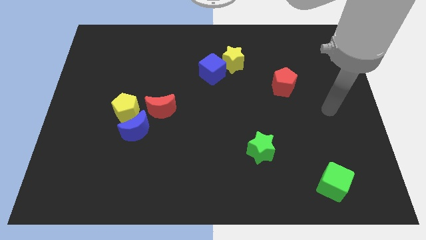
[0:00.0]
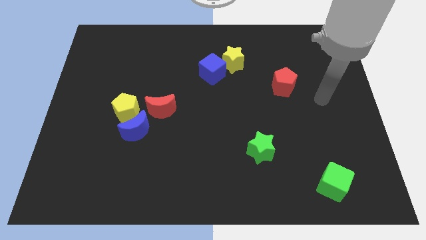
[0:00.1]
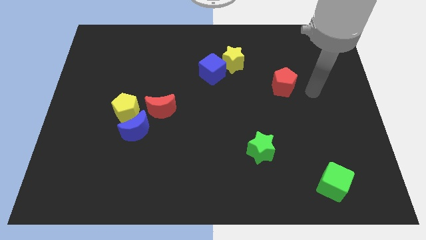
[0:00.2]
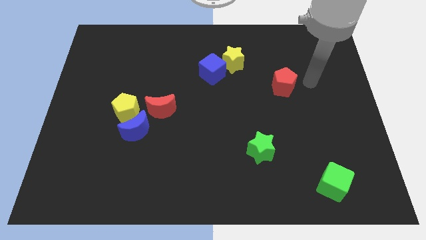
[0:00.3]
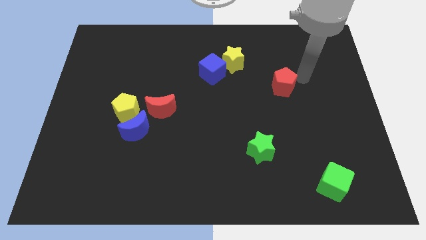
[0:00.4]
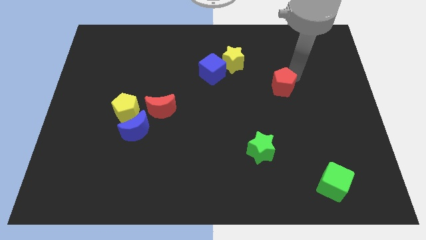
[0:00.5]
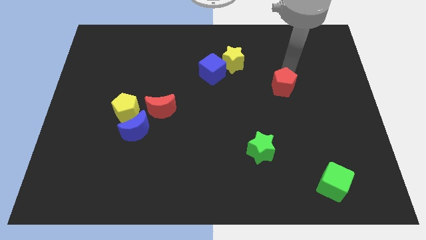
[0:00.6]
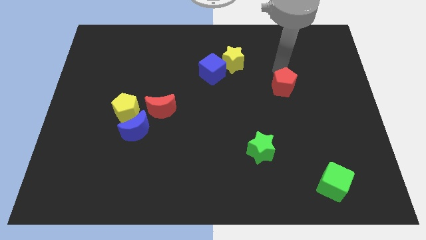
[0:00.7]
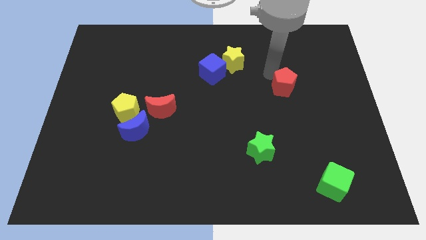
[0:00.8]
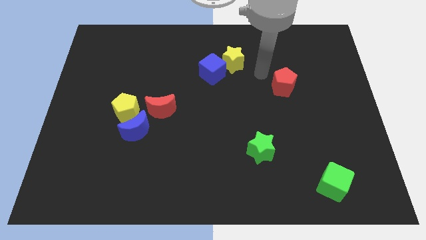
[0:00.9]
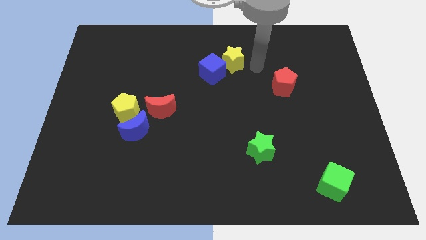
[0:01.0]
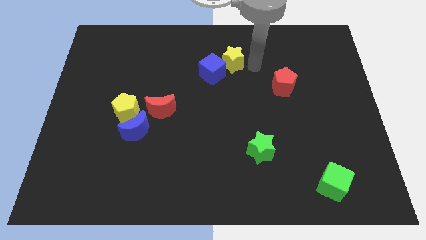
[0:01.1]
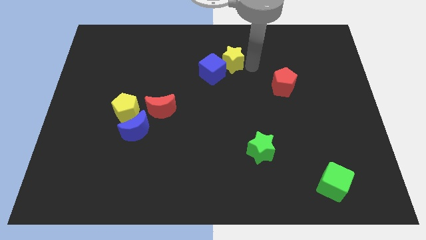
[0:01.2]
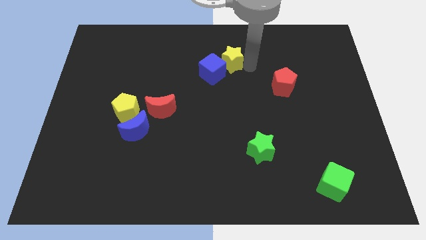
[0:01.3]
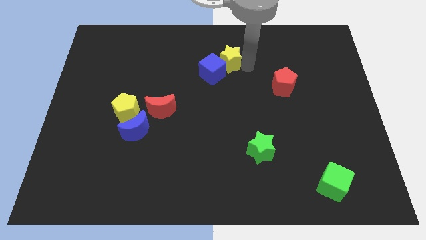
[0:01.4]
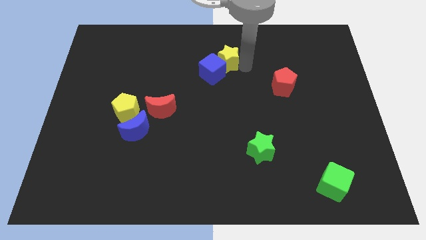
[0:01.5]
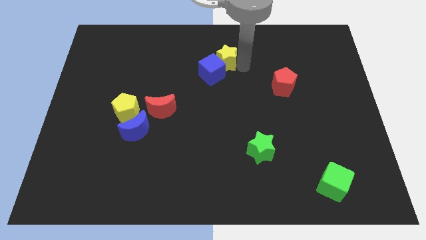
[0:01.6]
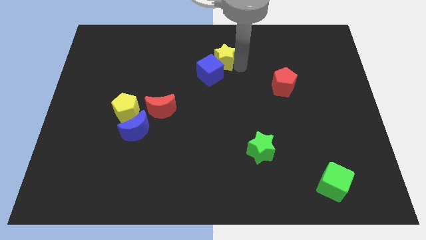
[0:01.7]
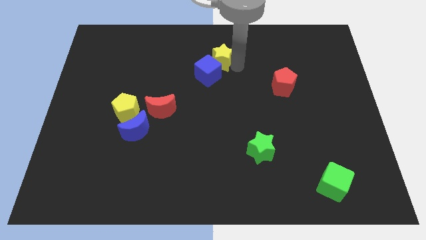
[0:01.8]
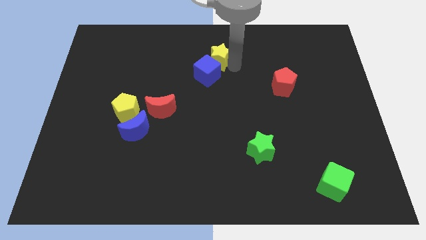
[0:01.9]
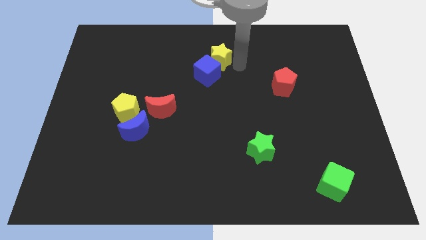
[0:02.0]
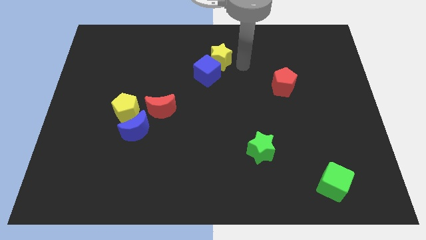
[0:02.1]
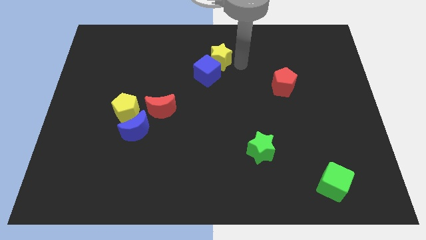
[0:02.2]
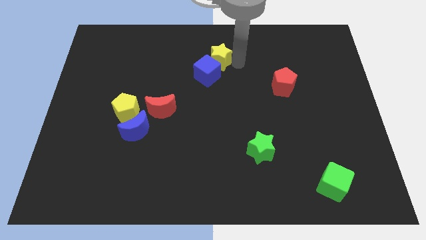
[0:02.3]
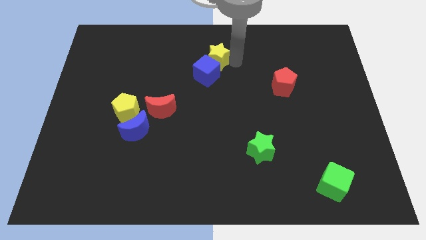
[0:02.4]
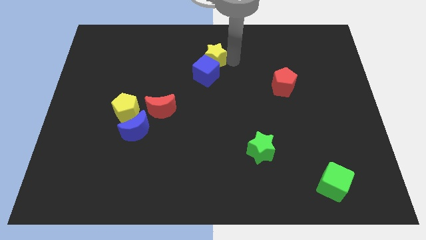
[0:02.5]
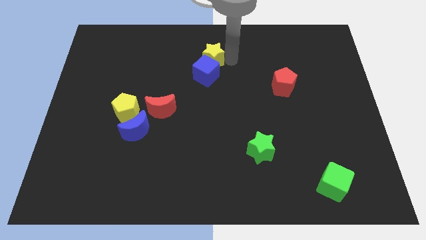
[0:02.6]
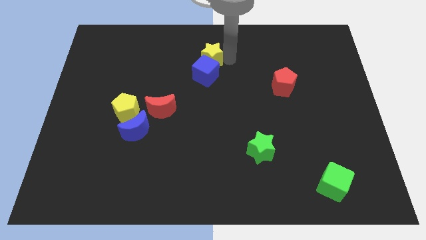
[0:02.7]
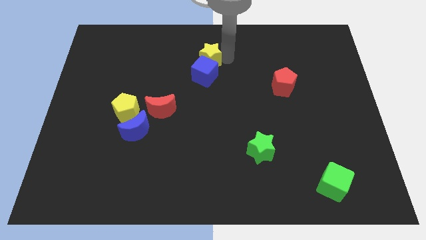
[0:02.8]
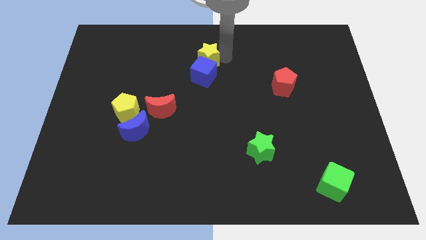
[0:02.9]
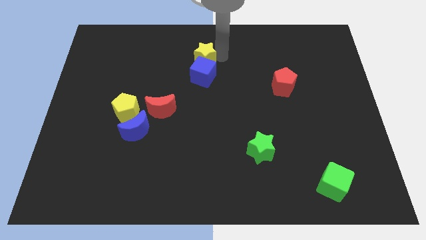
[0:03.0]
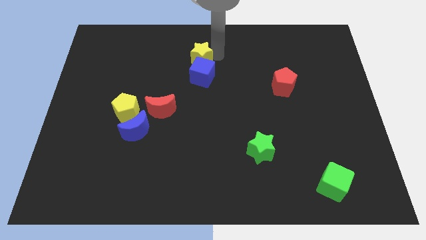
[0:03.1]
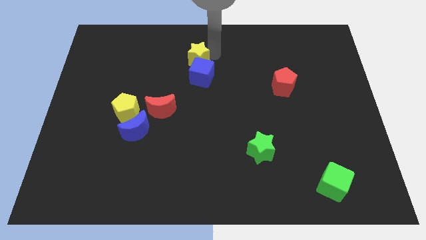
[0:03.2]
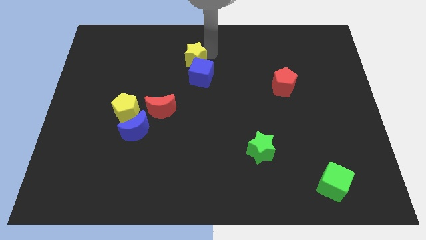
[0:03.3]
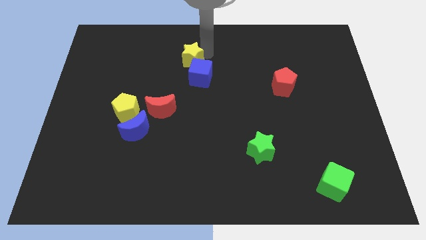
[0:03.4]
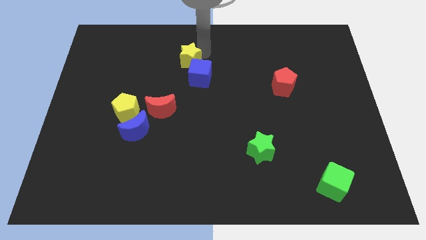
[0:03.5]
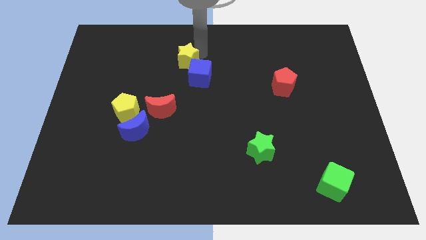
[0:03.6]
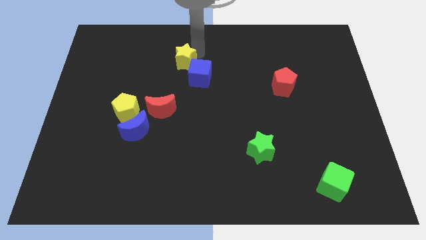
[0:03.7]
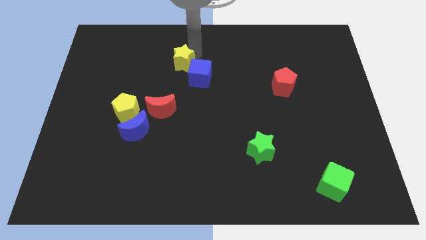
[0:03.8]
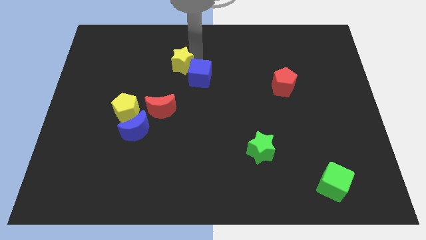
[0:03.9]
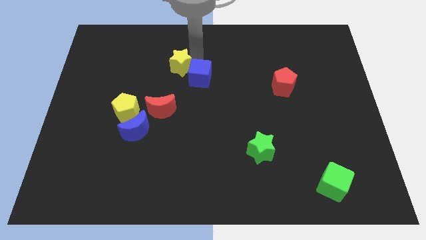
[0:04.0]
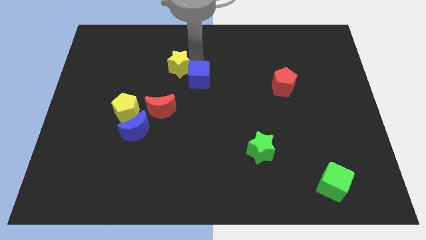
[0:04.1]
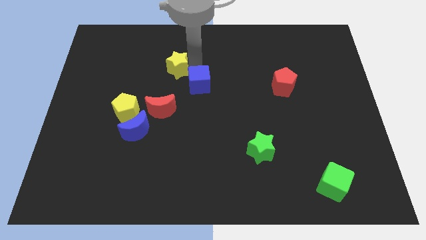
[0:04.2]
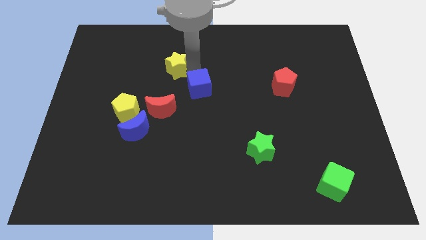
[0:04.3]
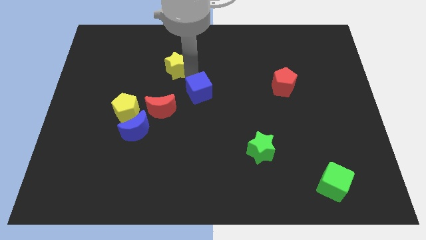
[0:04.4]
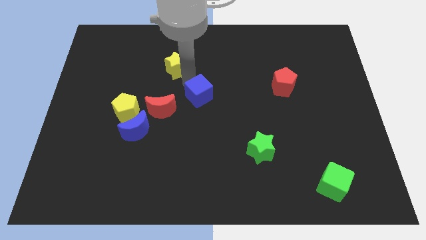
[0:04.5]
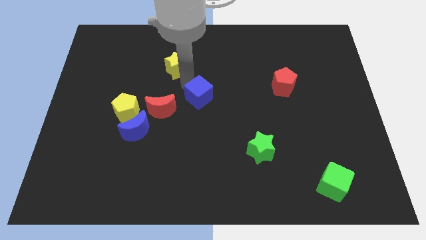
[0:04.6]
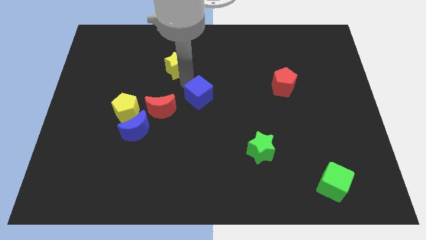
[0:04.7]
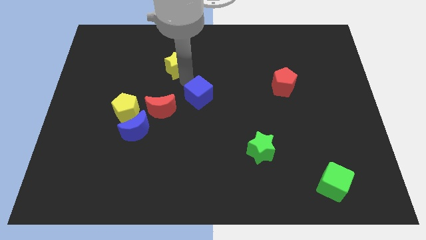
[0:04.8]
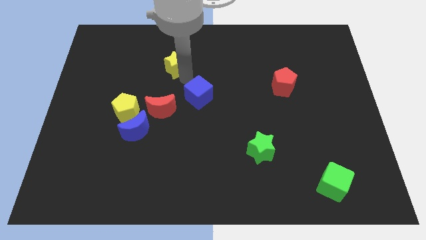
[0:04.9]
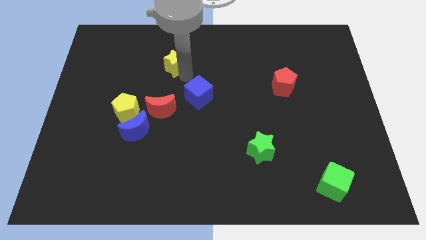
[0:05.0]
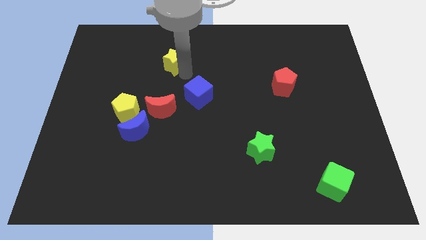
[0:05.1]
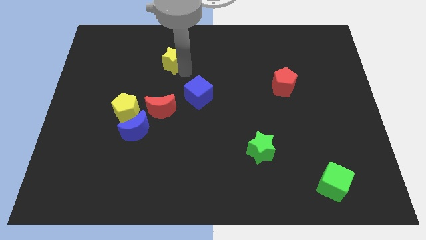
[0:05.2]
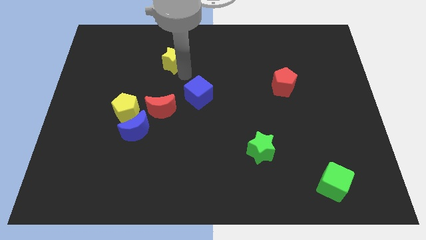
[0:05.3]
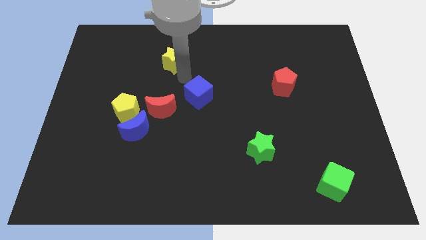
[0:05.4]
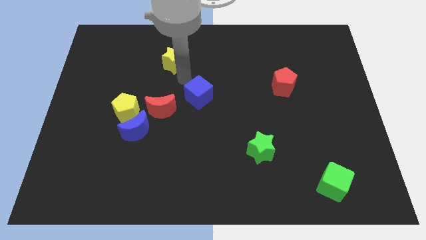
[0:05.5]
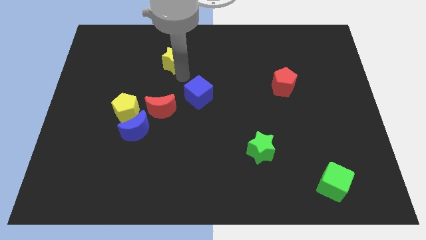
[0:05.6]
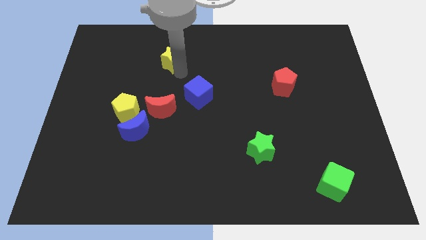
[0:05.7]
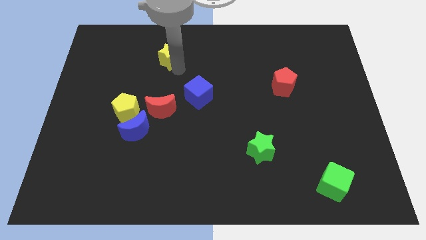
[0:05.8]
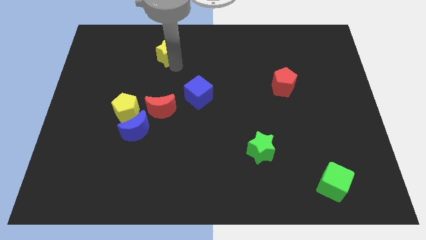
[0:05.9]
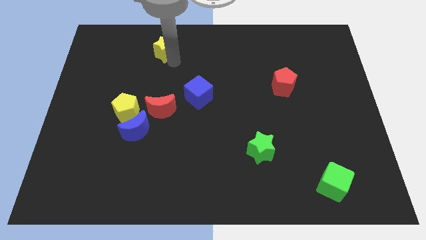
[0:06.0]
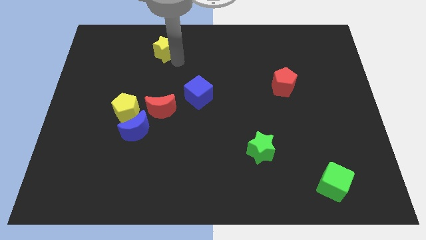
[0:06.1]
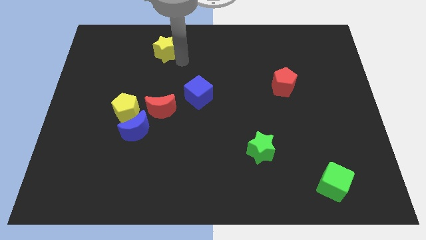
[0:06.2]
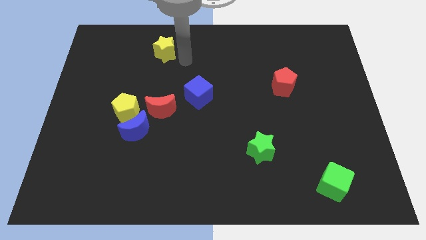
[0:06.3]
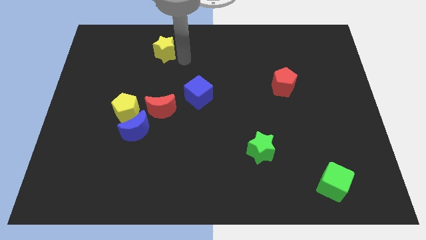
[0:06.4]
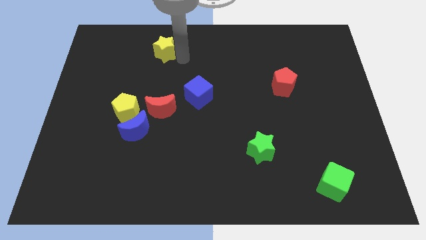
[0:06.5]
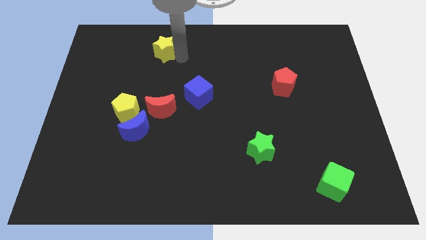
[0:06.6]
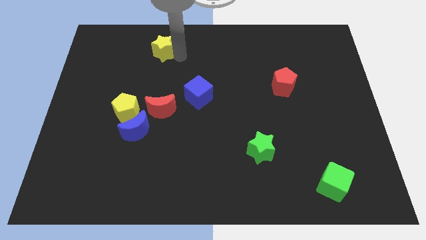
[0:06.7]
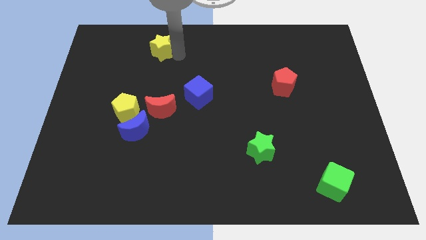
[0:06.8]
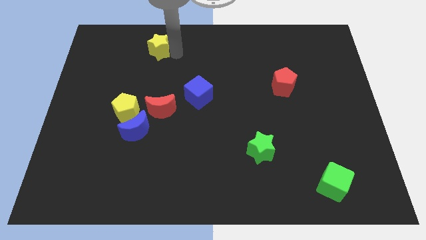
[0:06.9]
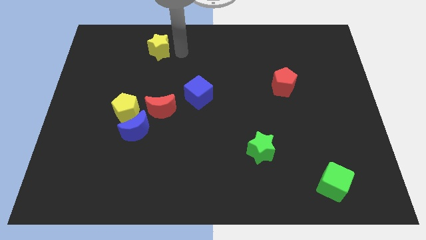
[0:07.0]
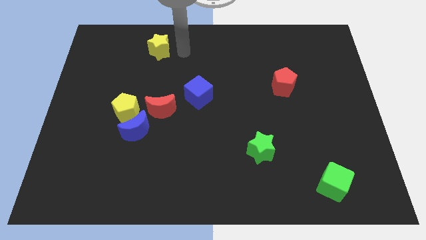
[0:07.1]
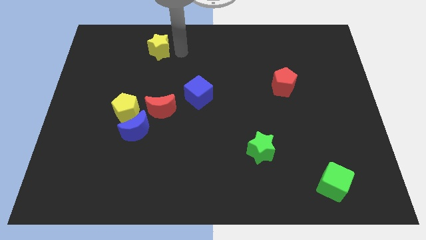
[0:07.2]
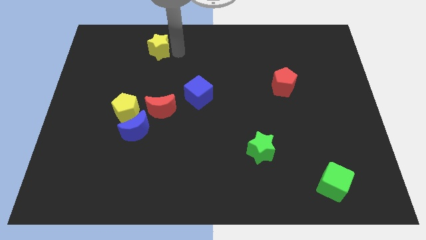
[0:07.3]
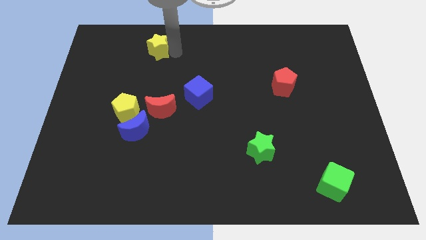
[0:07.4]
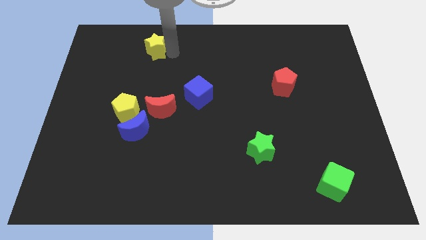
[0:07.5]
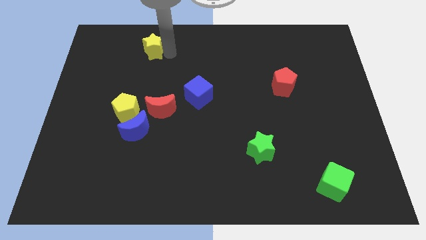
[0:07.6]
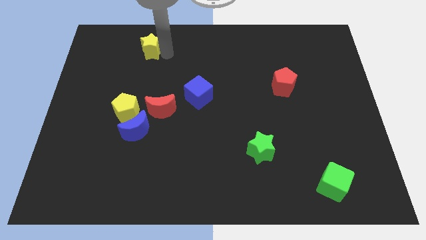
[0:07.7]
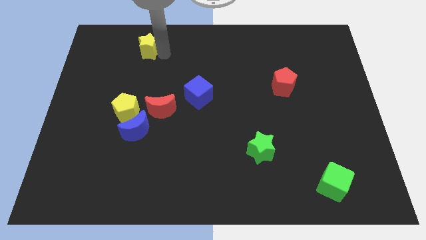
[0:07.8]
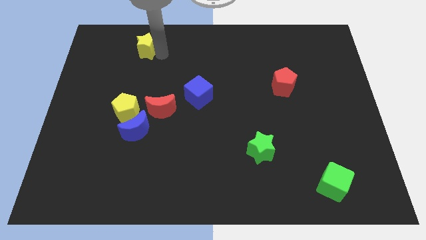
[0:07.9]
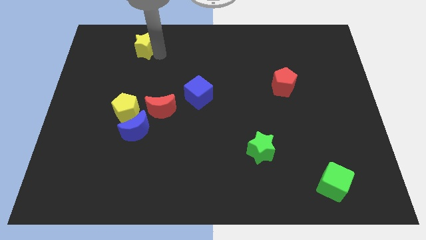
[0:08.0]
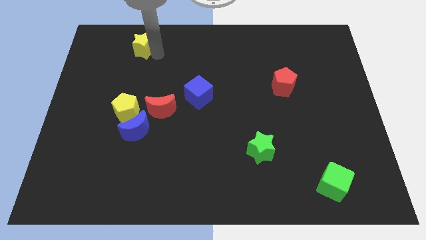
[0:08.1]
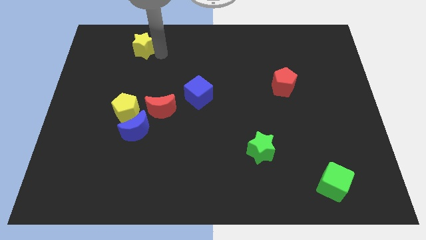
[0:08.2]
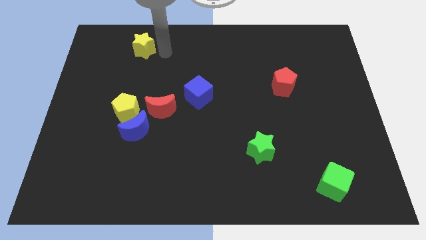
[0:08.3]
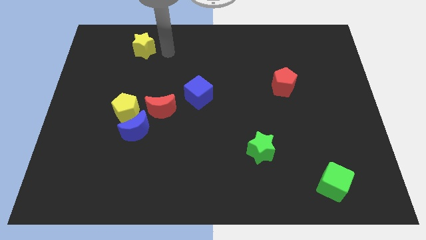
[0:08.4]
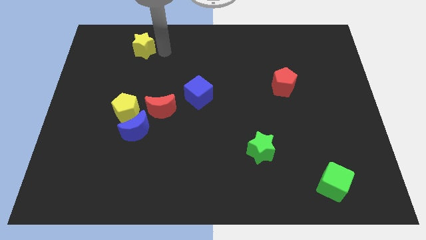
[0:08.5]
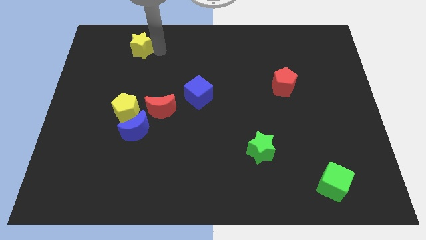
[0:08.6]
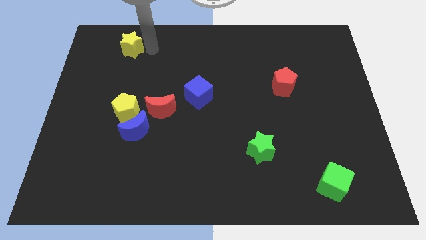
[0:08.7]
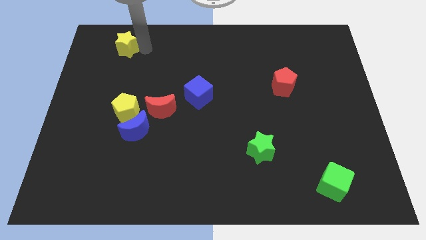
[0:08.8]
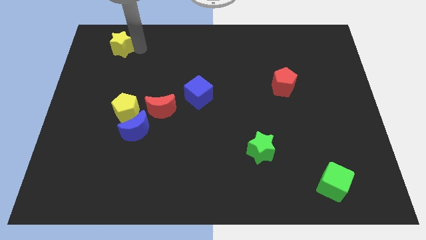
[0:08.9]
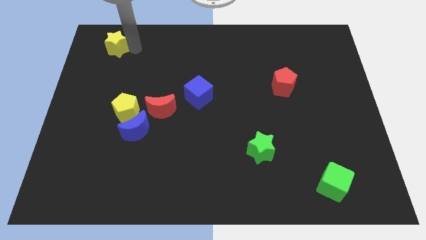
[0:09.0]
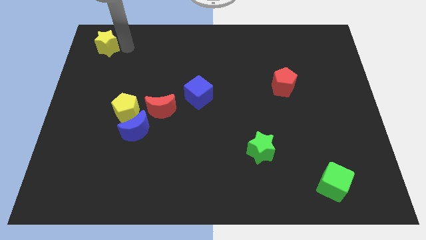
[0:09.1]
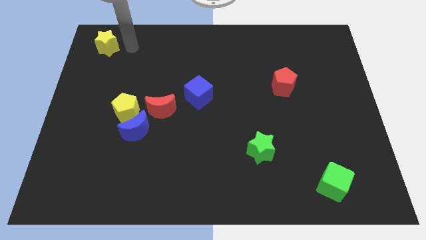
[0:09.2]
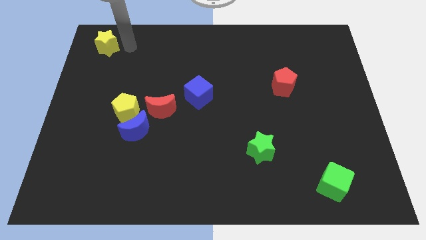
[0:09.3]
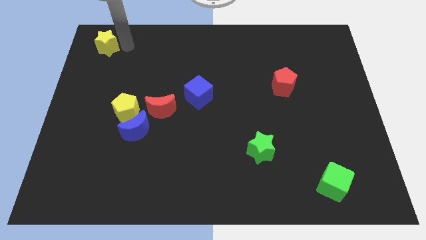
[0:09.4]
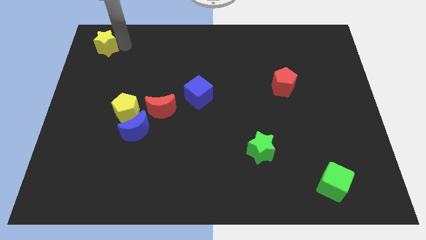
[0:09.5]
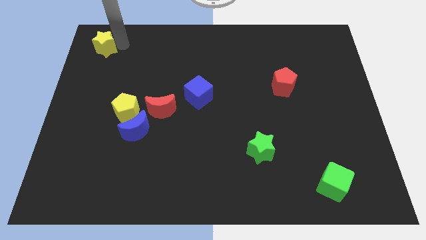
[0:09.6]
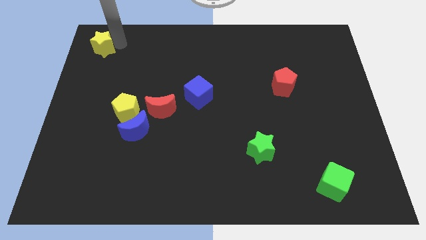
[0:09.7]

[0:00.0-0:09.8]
slide the yellow star to the top left
